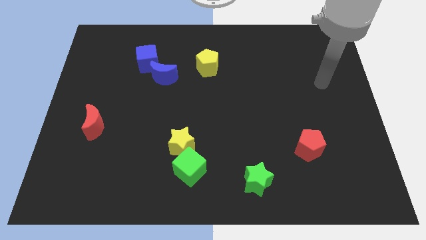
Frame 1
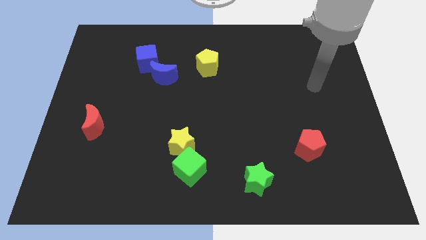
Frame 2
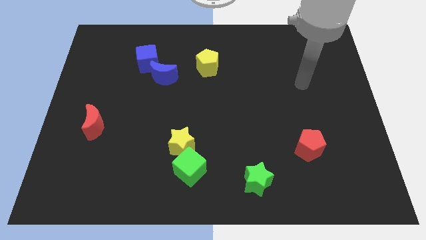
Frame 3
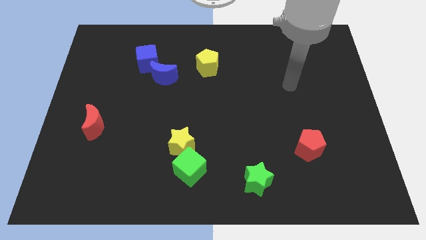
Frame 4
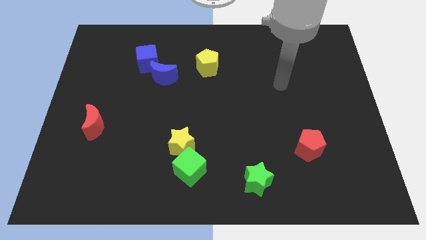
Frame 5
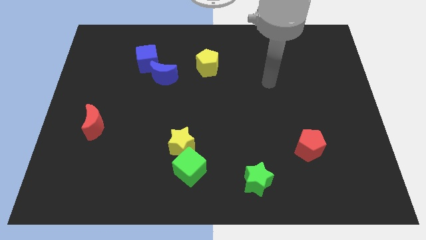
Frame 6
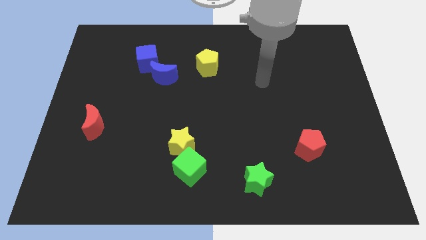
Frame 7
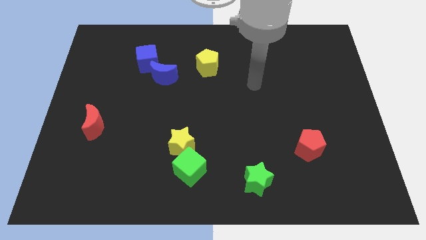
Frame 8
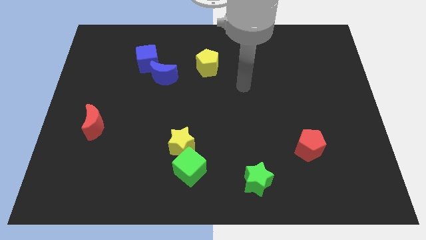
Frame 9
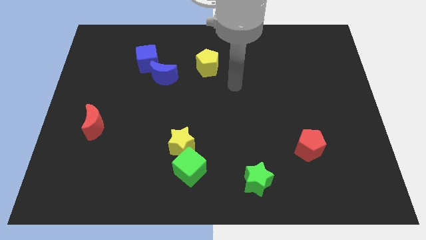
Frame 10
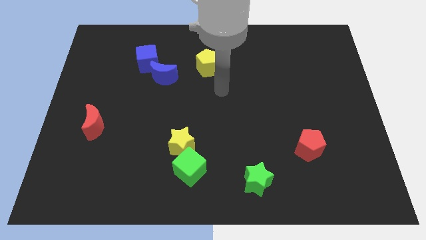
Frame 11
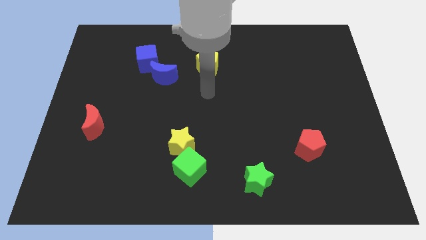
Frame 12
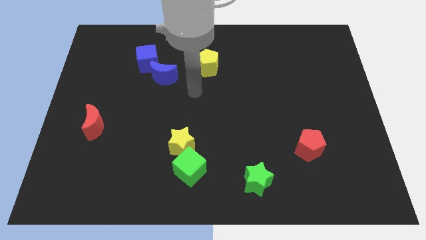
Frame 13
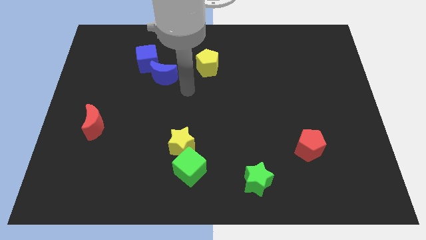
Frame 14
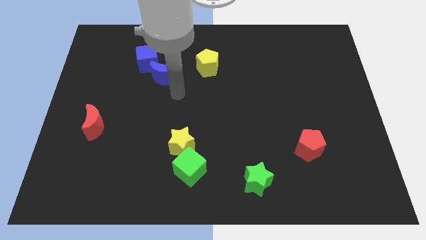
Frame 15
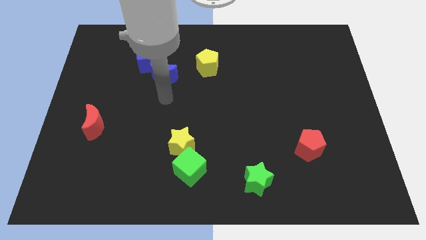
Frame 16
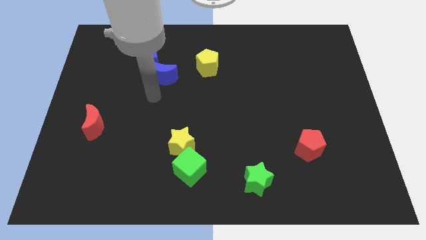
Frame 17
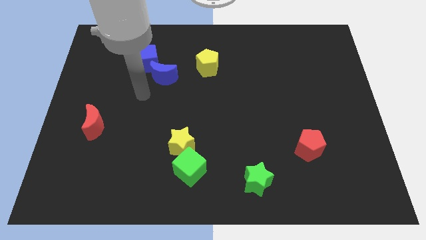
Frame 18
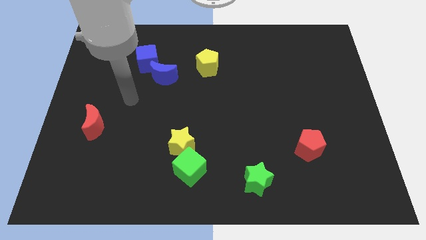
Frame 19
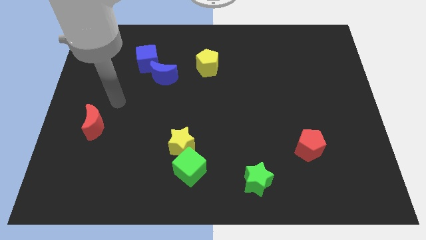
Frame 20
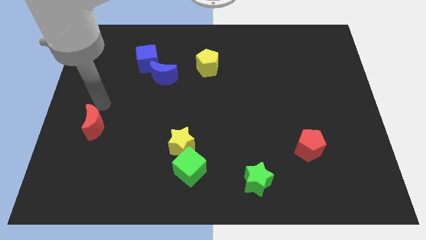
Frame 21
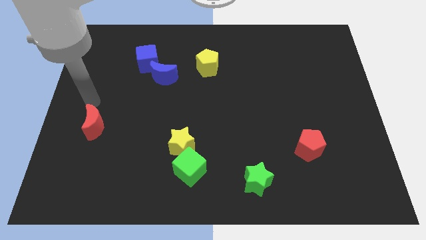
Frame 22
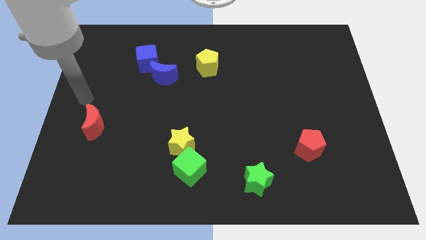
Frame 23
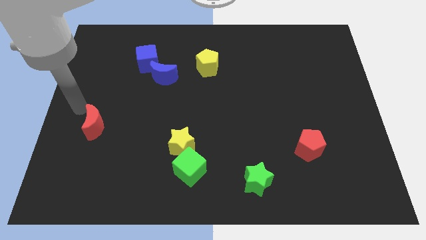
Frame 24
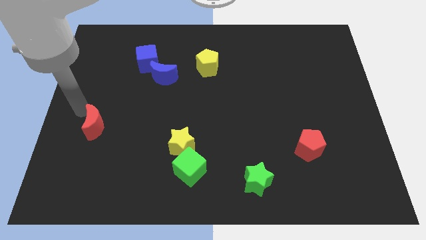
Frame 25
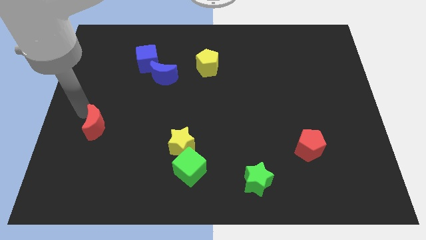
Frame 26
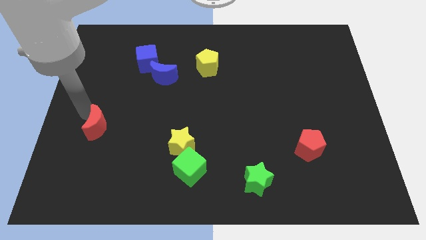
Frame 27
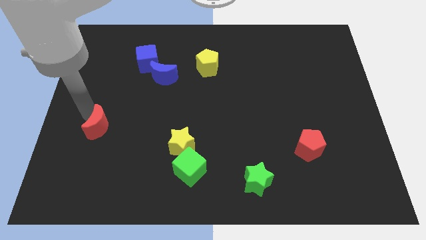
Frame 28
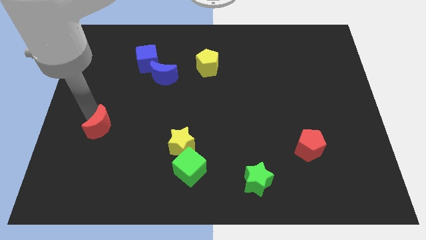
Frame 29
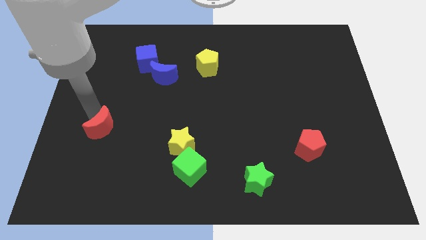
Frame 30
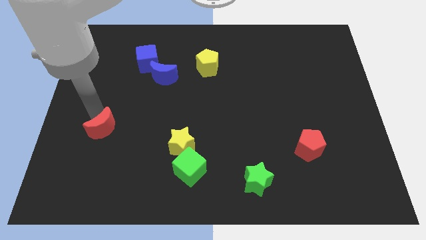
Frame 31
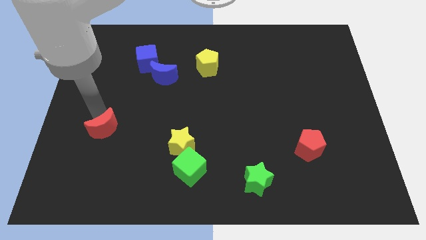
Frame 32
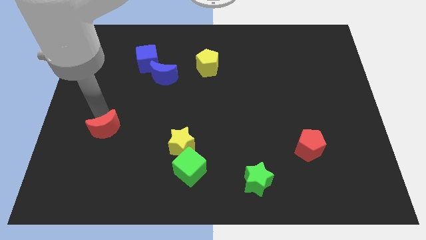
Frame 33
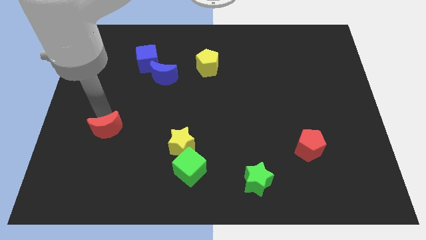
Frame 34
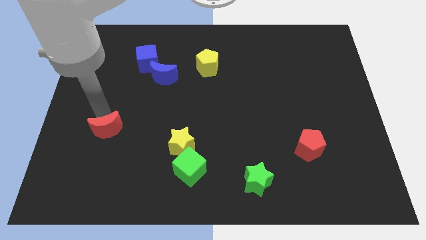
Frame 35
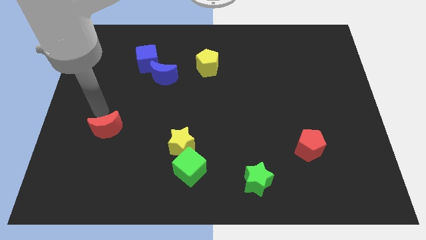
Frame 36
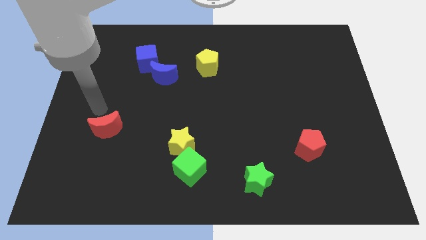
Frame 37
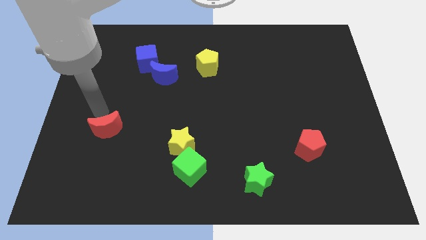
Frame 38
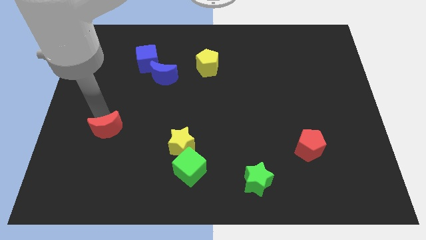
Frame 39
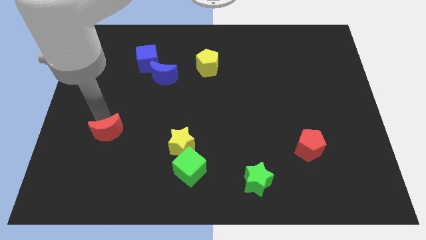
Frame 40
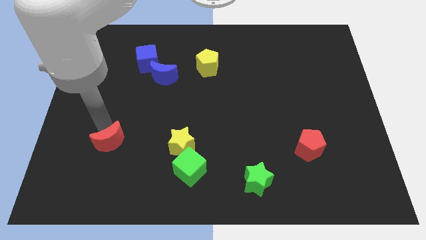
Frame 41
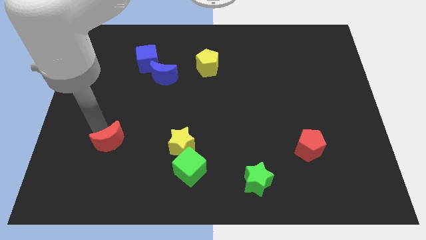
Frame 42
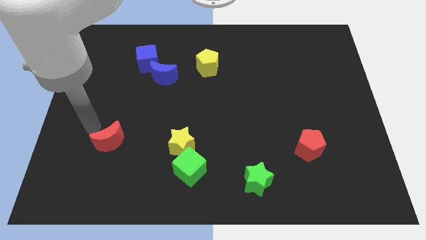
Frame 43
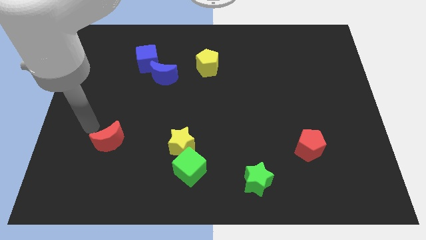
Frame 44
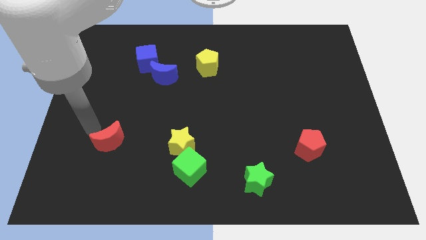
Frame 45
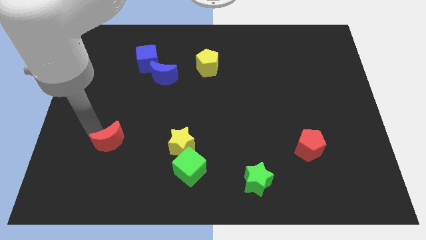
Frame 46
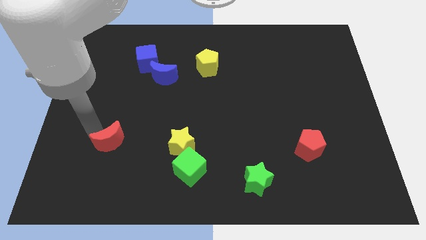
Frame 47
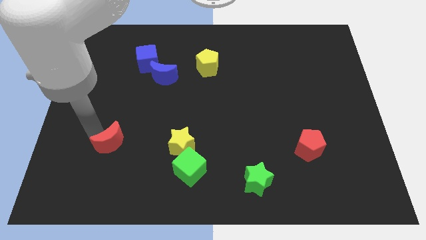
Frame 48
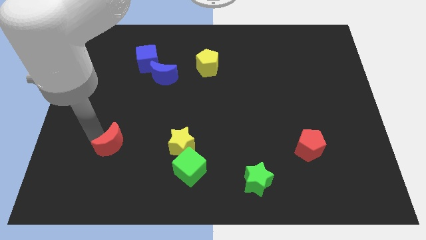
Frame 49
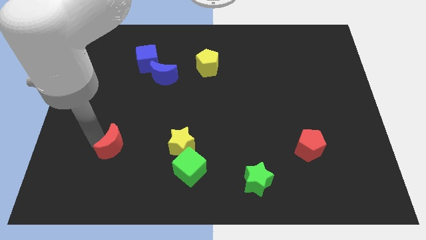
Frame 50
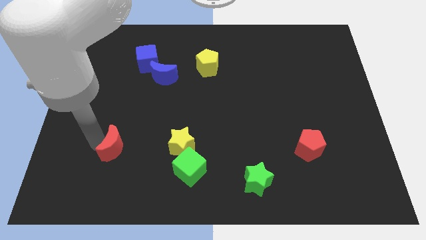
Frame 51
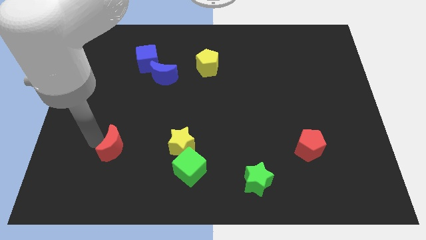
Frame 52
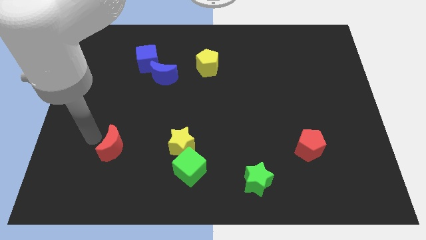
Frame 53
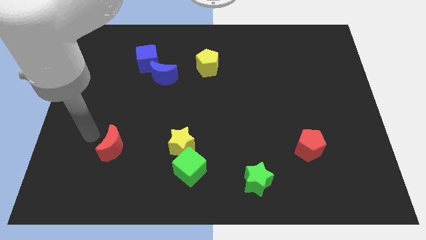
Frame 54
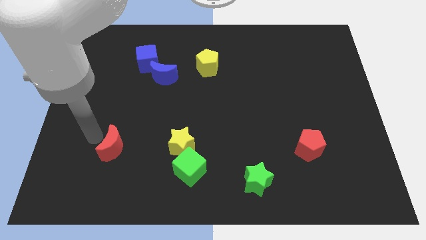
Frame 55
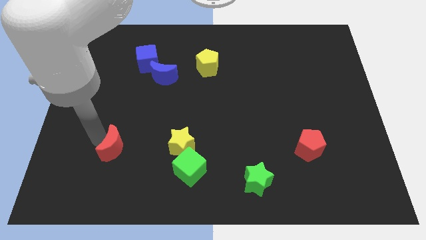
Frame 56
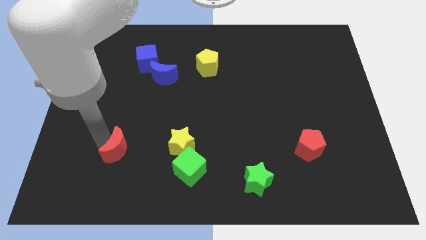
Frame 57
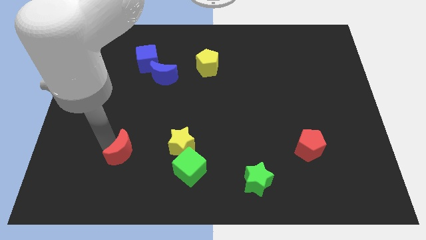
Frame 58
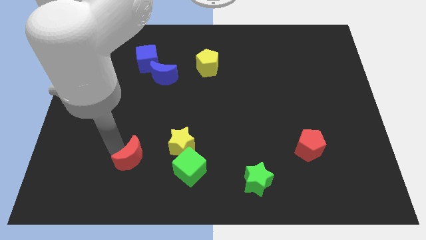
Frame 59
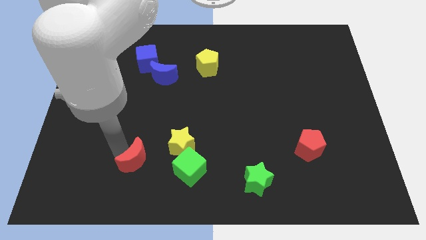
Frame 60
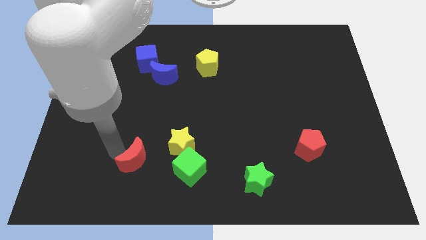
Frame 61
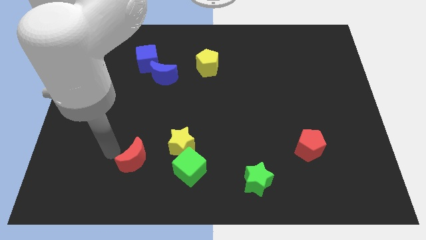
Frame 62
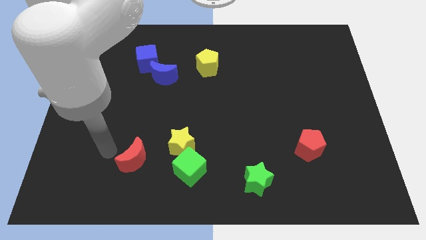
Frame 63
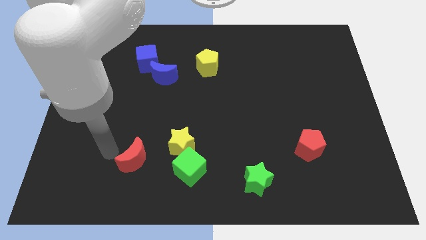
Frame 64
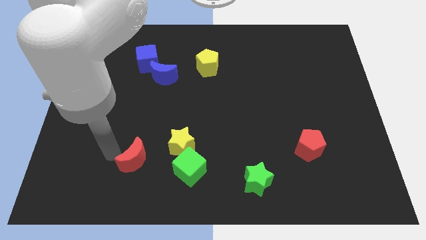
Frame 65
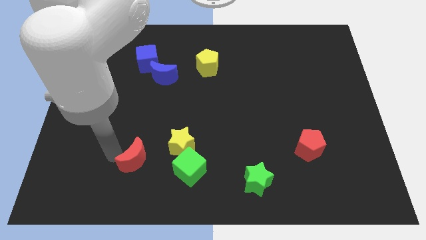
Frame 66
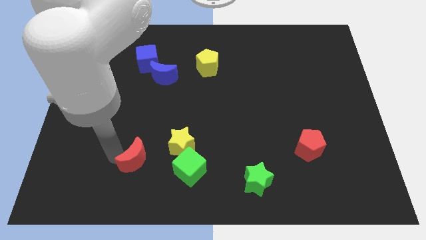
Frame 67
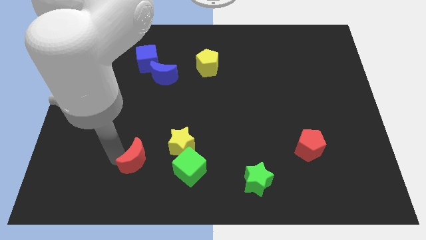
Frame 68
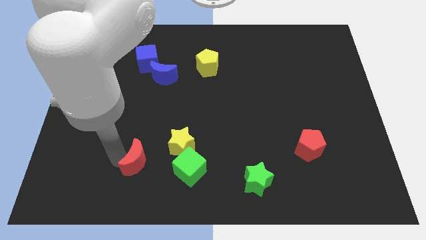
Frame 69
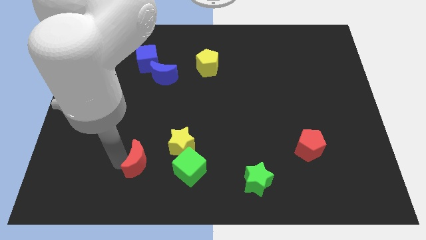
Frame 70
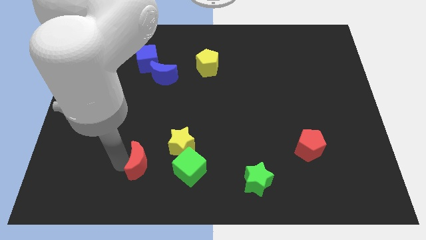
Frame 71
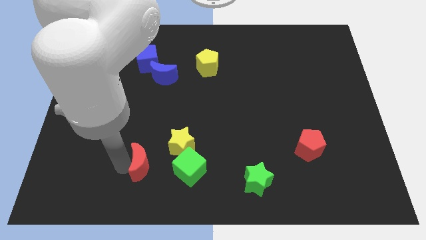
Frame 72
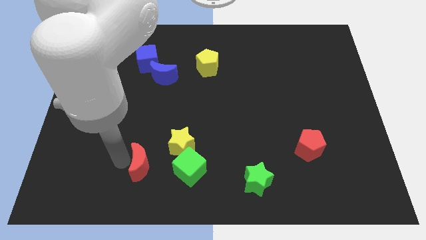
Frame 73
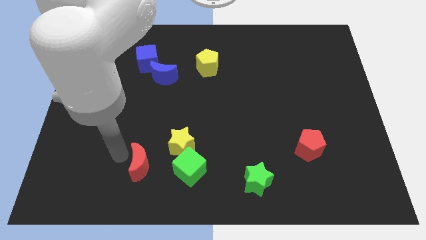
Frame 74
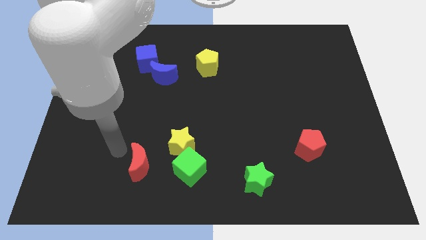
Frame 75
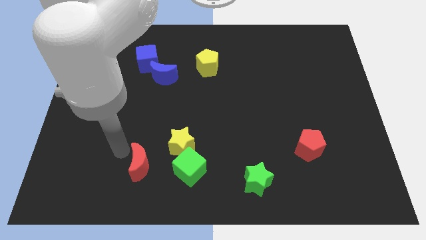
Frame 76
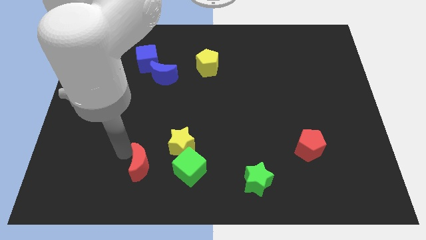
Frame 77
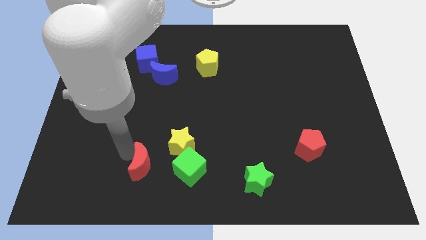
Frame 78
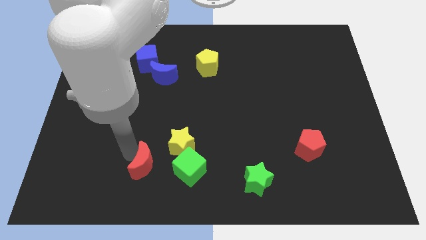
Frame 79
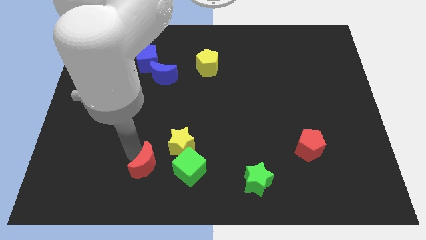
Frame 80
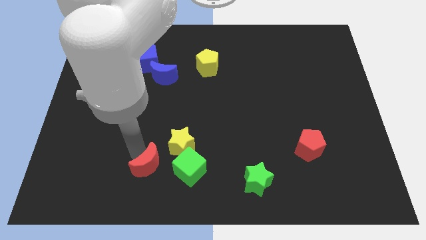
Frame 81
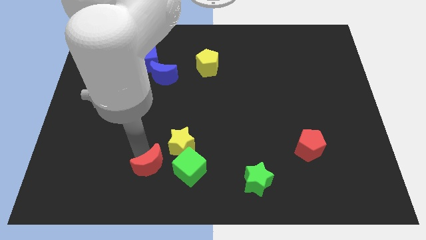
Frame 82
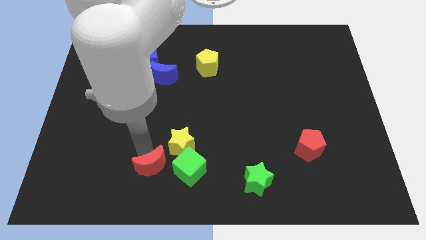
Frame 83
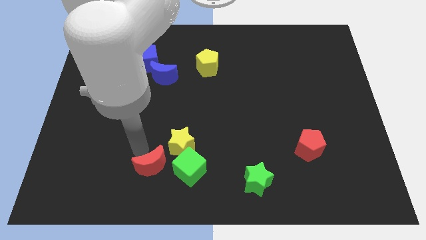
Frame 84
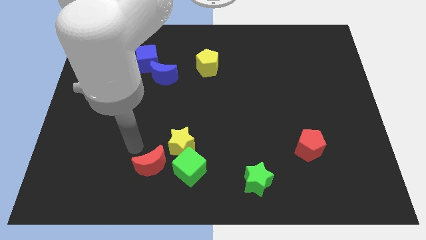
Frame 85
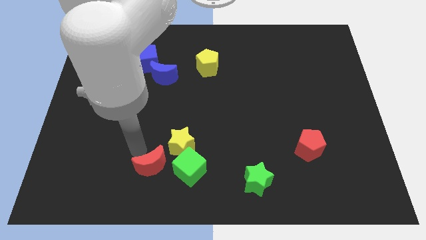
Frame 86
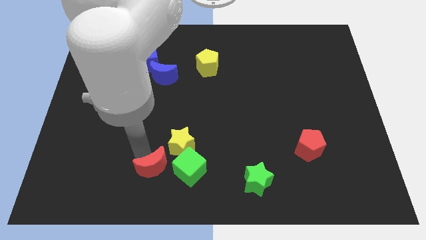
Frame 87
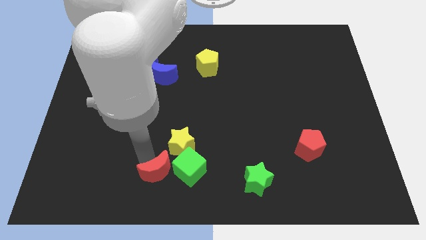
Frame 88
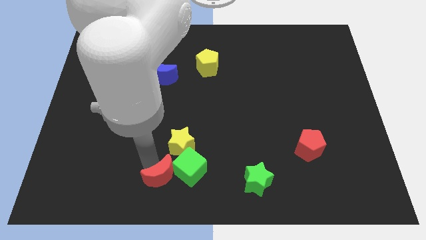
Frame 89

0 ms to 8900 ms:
slide the red moon to the bottom side
